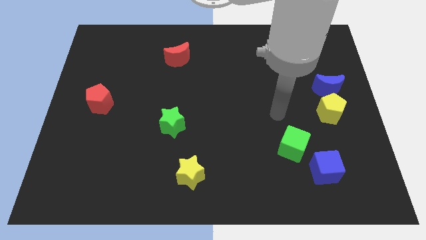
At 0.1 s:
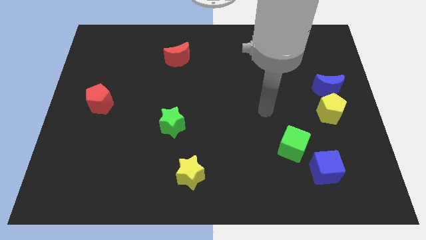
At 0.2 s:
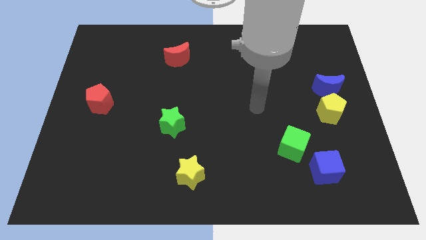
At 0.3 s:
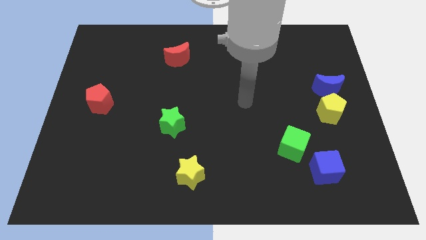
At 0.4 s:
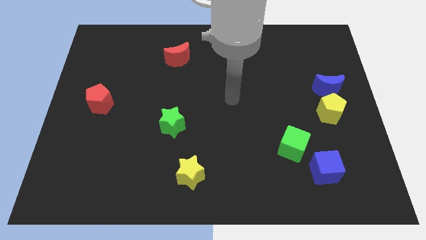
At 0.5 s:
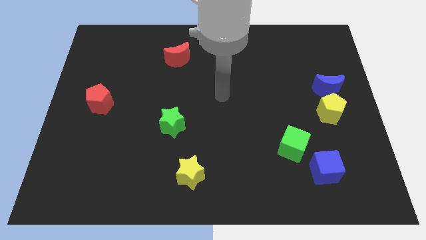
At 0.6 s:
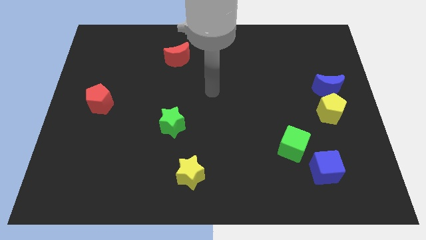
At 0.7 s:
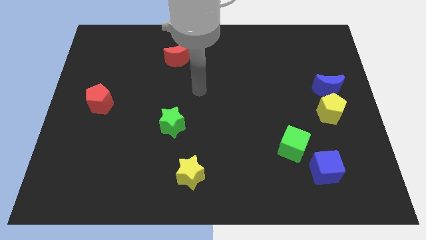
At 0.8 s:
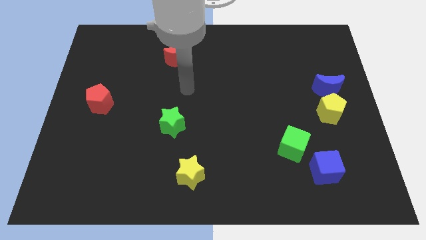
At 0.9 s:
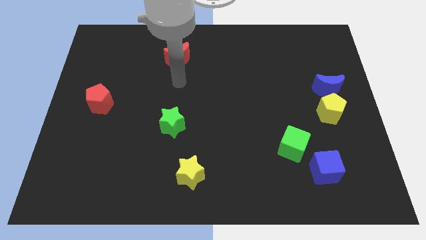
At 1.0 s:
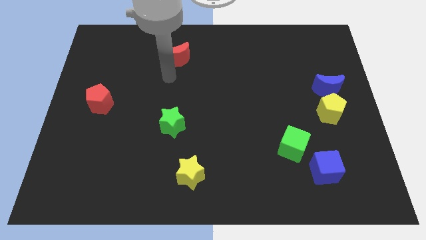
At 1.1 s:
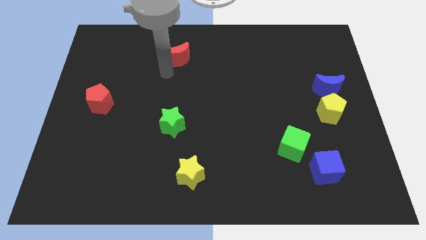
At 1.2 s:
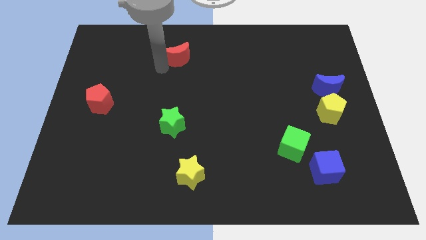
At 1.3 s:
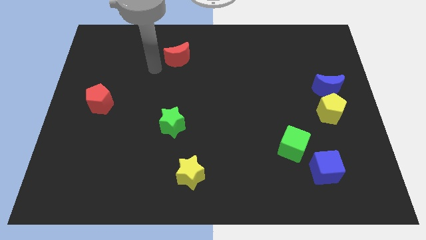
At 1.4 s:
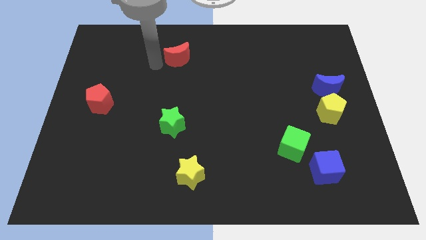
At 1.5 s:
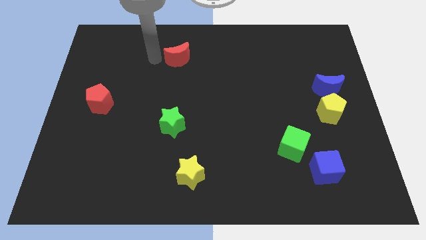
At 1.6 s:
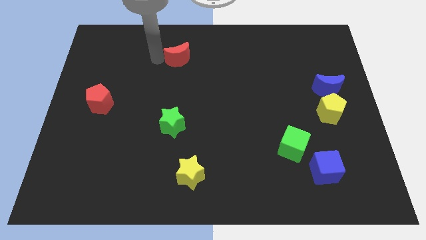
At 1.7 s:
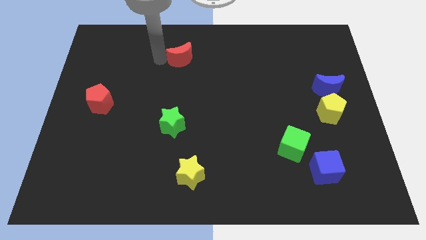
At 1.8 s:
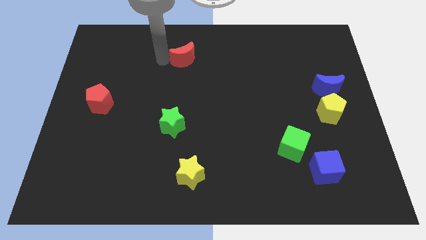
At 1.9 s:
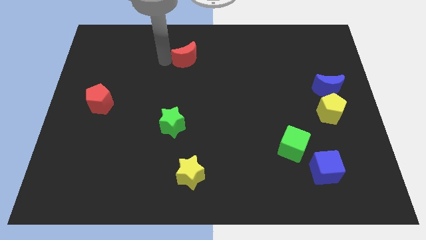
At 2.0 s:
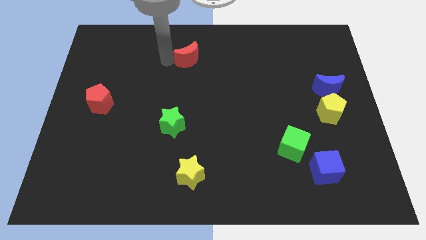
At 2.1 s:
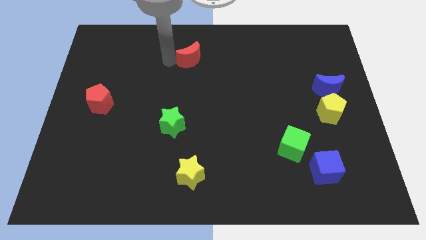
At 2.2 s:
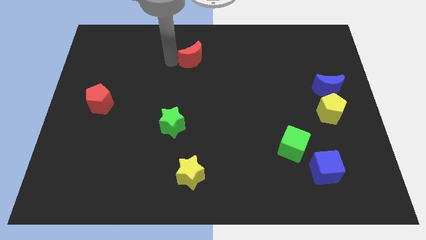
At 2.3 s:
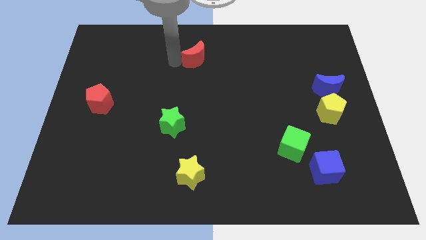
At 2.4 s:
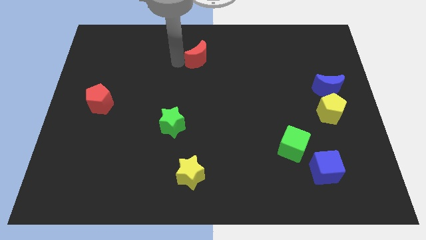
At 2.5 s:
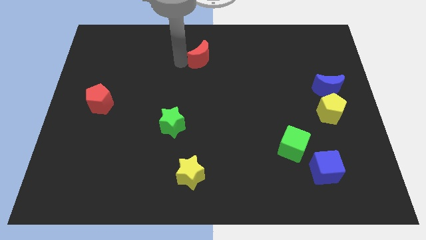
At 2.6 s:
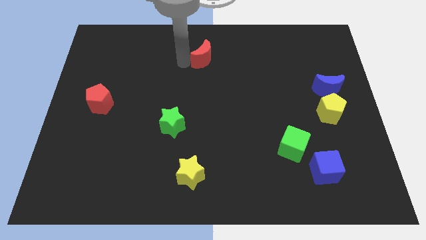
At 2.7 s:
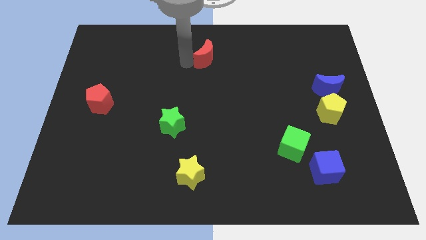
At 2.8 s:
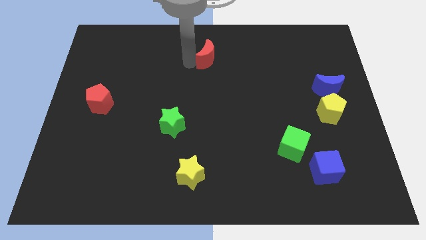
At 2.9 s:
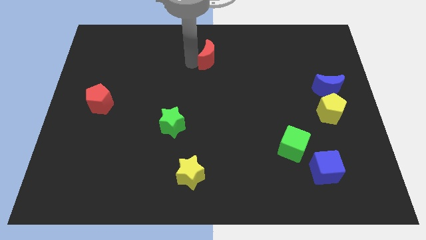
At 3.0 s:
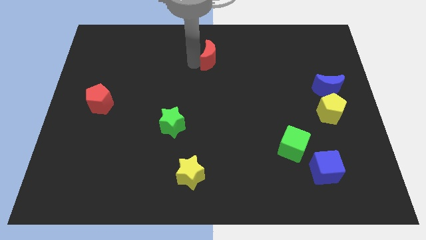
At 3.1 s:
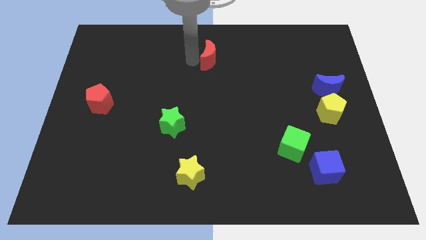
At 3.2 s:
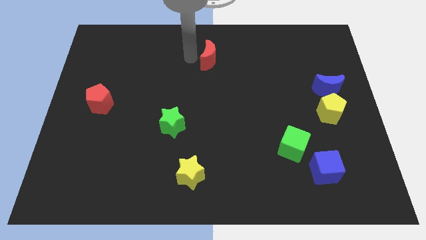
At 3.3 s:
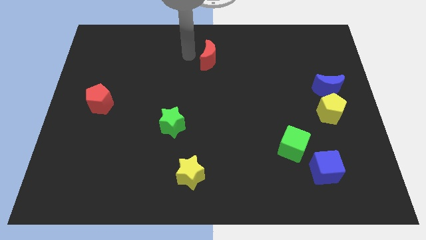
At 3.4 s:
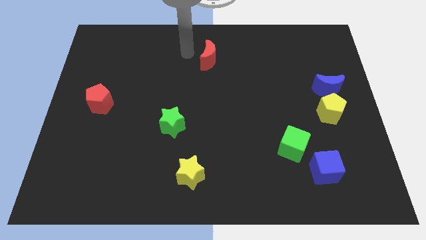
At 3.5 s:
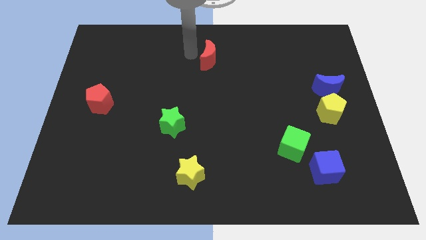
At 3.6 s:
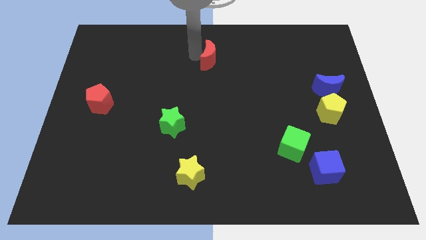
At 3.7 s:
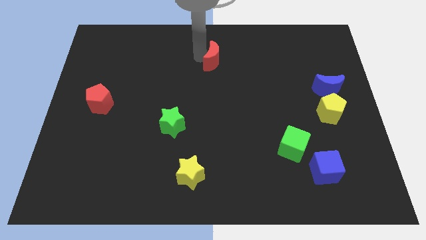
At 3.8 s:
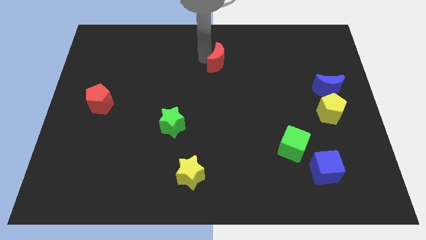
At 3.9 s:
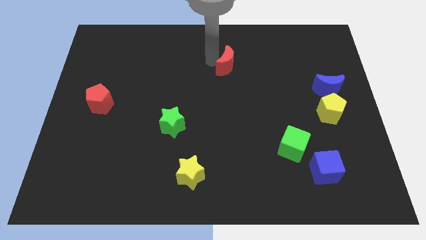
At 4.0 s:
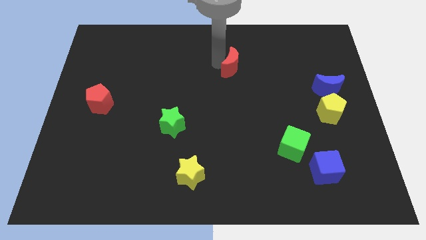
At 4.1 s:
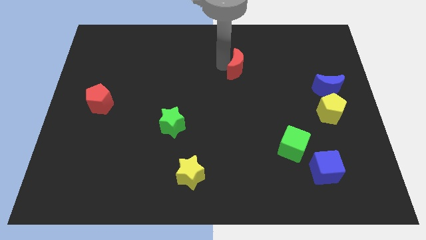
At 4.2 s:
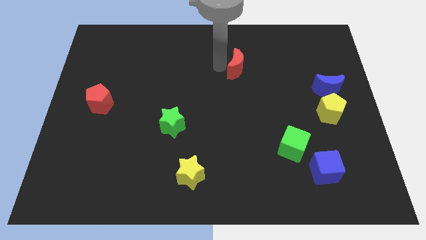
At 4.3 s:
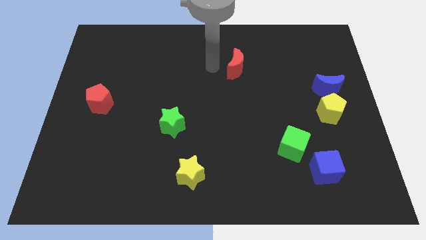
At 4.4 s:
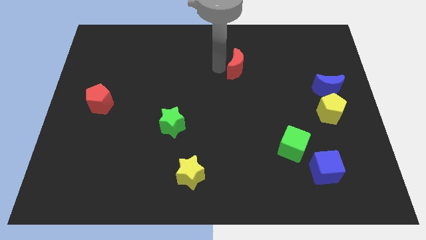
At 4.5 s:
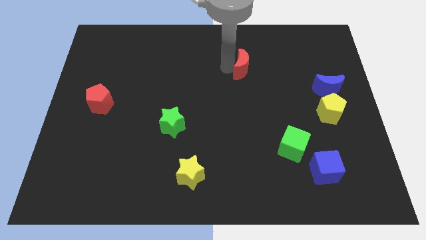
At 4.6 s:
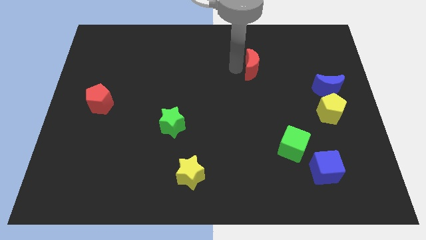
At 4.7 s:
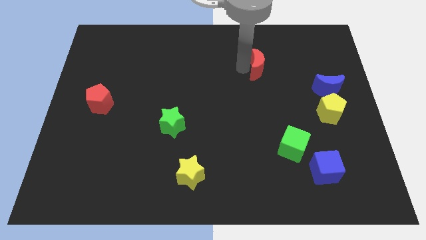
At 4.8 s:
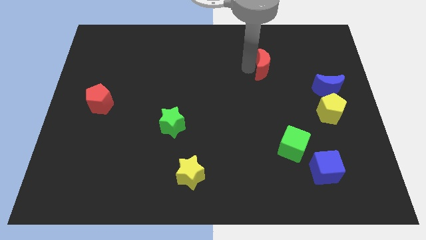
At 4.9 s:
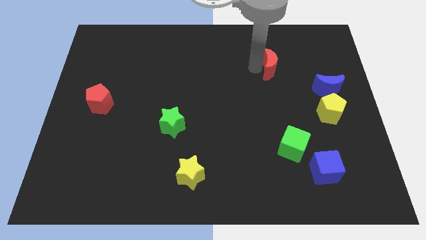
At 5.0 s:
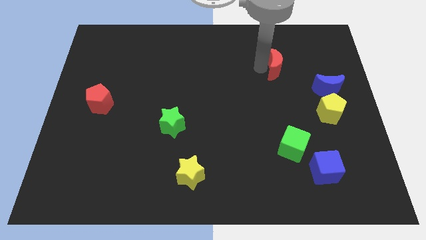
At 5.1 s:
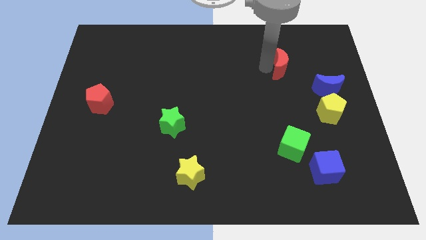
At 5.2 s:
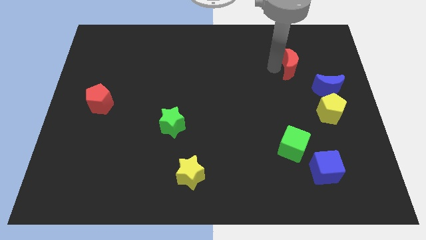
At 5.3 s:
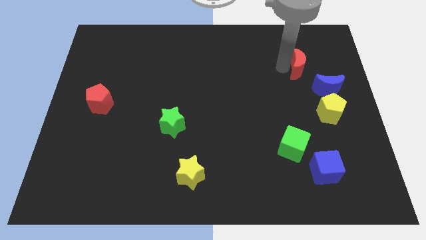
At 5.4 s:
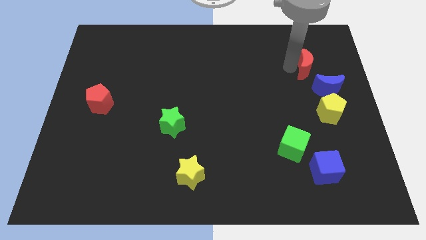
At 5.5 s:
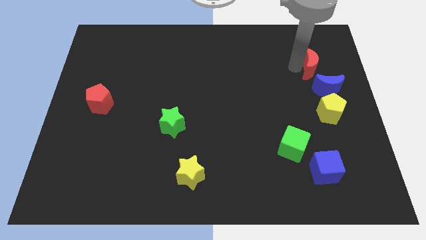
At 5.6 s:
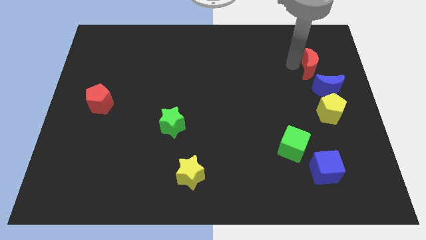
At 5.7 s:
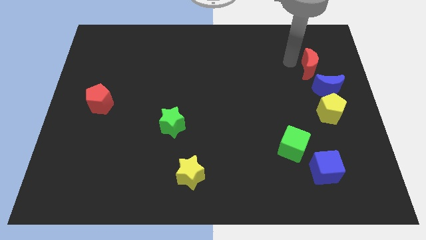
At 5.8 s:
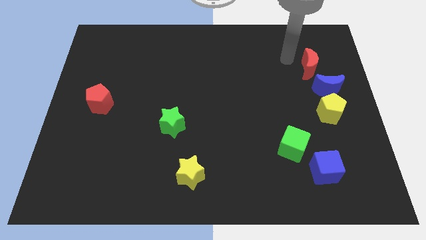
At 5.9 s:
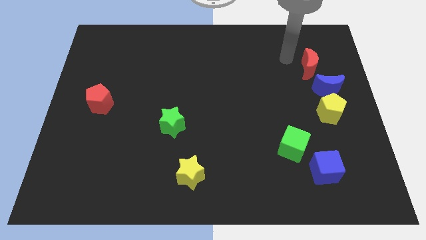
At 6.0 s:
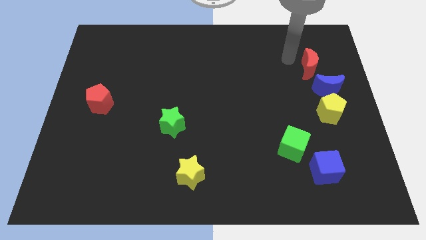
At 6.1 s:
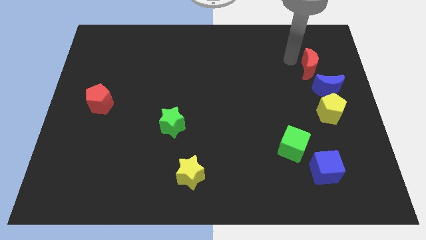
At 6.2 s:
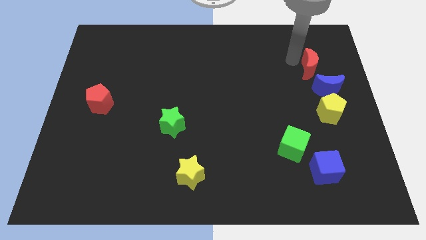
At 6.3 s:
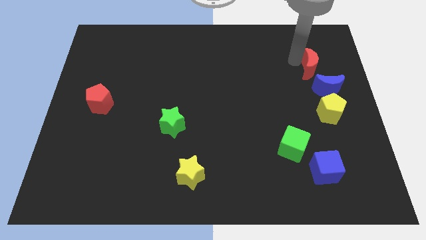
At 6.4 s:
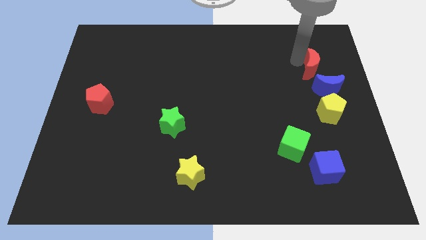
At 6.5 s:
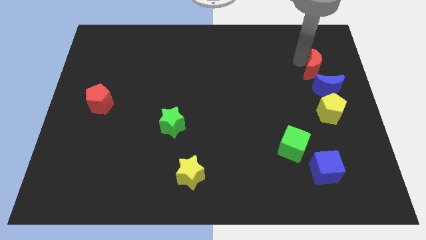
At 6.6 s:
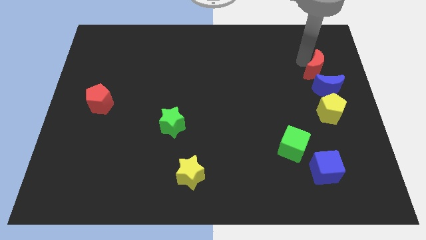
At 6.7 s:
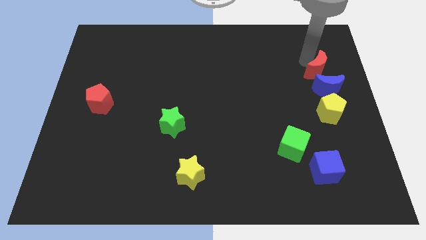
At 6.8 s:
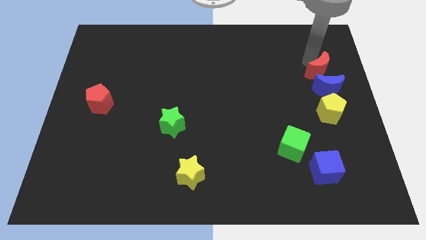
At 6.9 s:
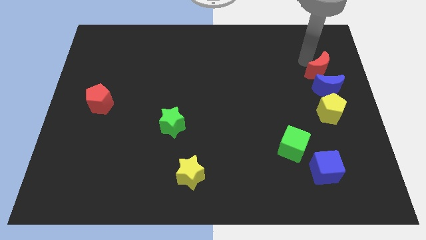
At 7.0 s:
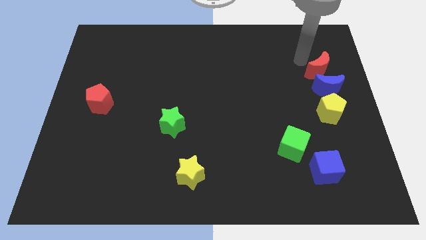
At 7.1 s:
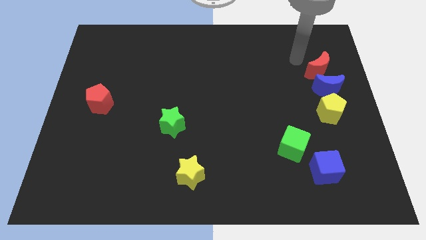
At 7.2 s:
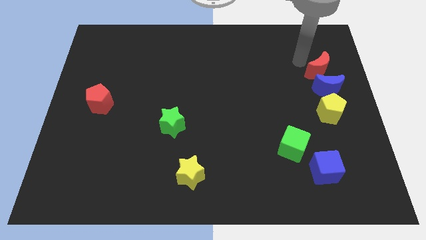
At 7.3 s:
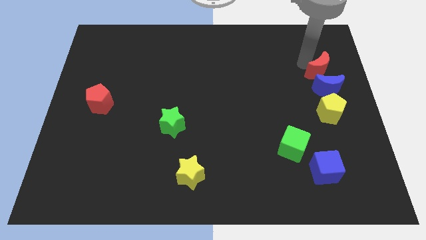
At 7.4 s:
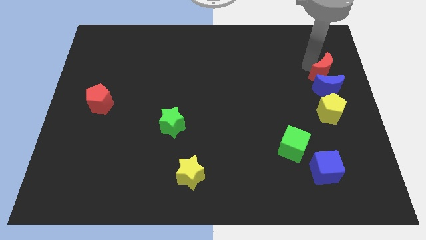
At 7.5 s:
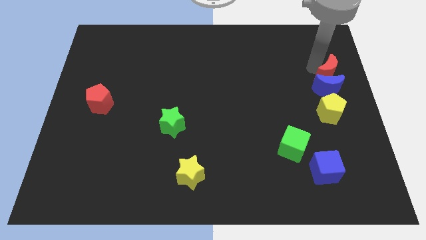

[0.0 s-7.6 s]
slide the red moon to the center right
